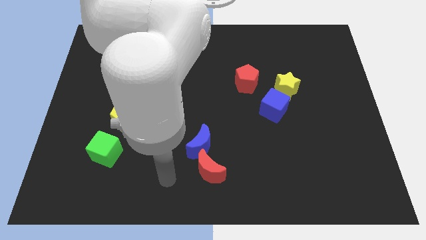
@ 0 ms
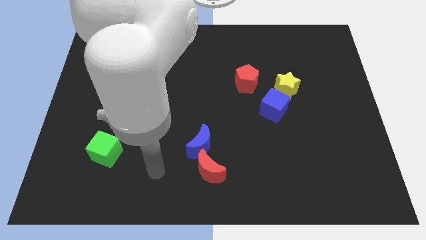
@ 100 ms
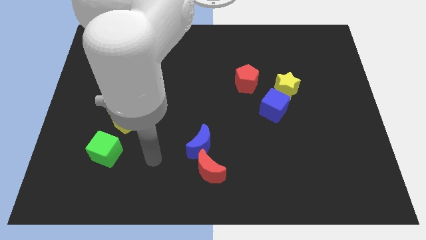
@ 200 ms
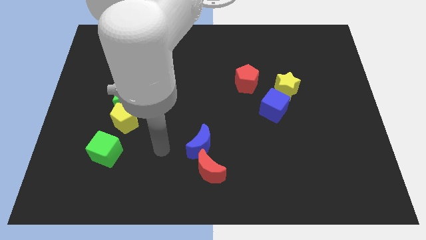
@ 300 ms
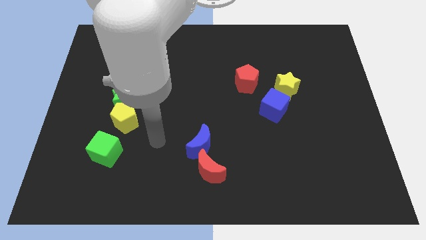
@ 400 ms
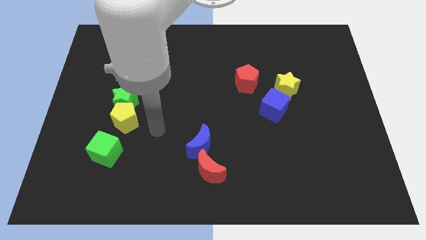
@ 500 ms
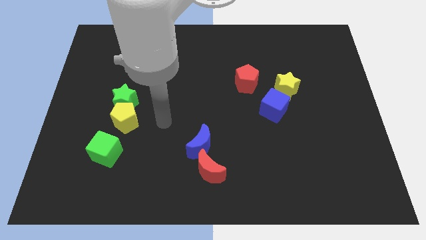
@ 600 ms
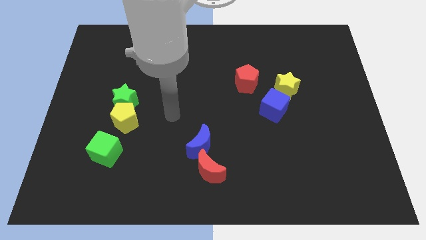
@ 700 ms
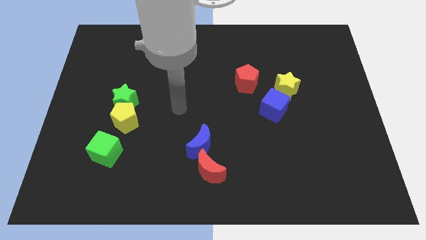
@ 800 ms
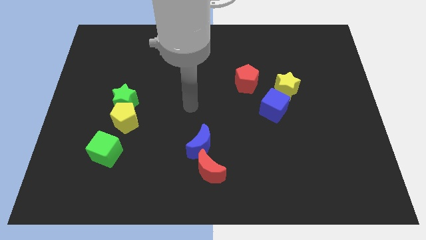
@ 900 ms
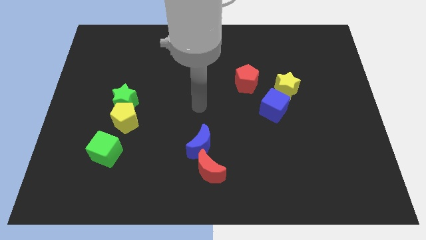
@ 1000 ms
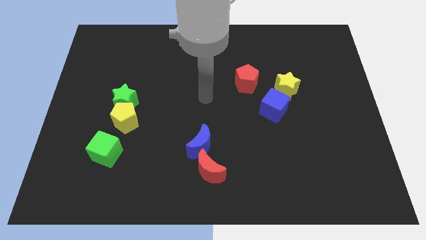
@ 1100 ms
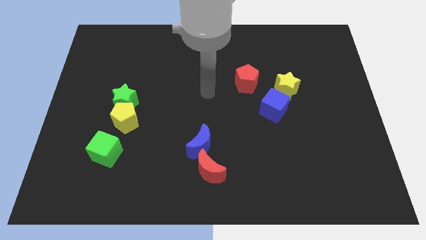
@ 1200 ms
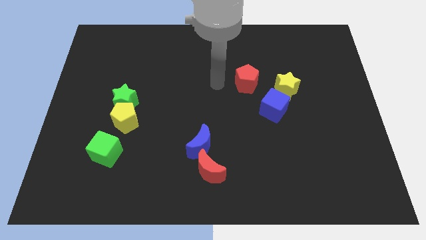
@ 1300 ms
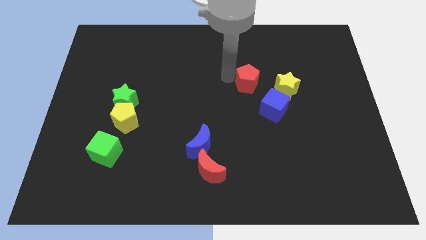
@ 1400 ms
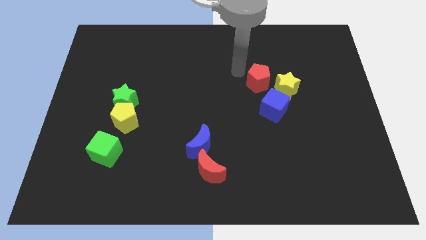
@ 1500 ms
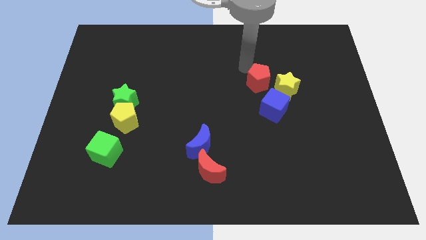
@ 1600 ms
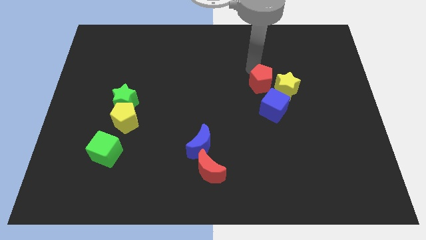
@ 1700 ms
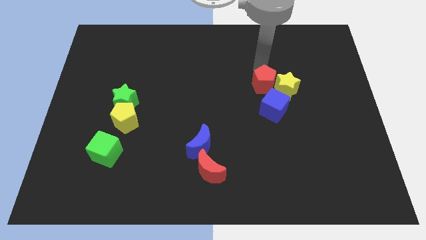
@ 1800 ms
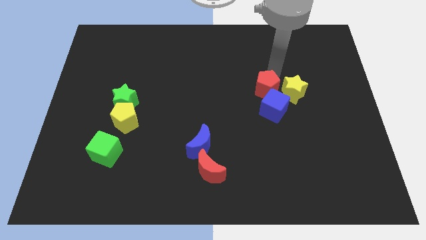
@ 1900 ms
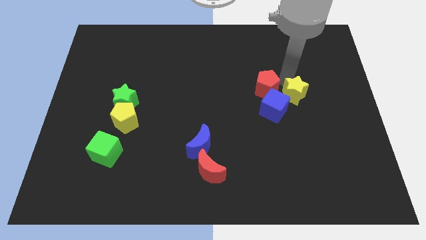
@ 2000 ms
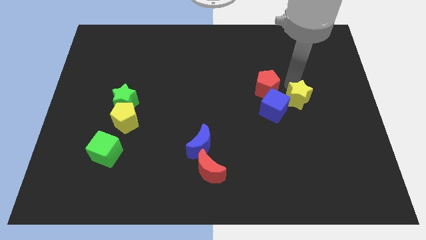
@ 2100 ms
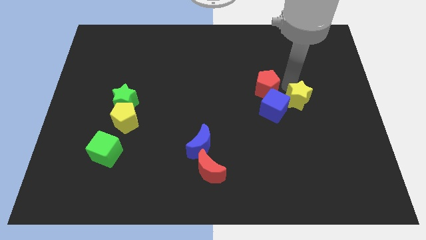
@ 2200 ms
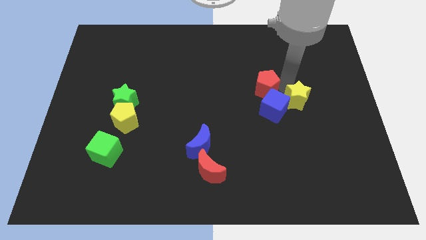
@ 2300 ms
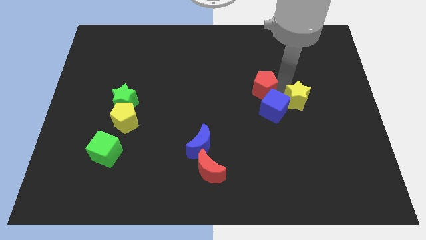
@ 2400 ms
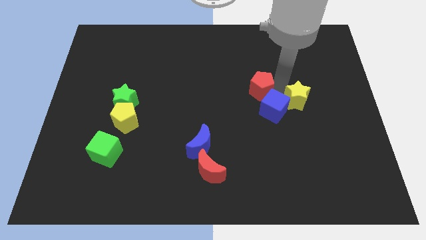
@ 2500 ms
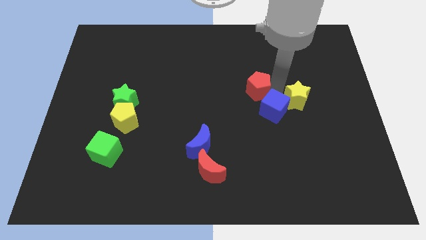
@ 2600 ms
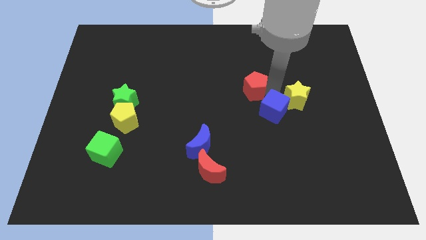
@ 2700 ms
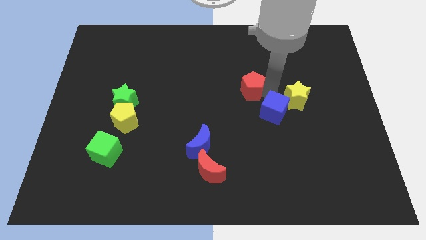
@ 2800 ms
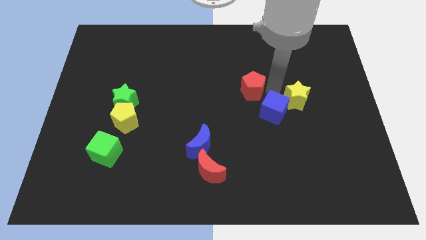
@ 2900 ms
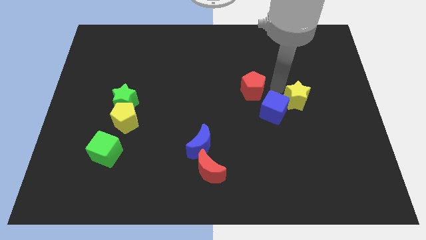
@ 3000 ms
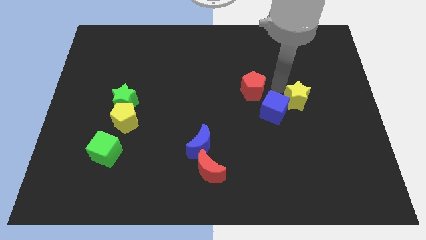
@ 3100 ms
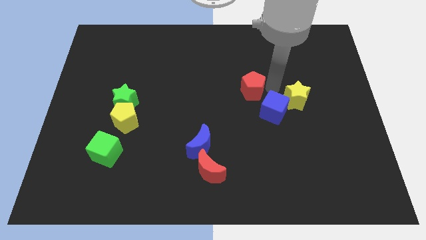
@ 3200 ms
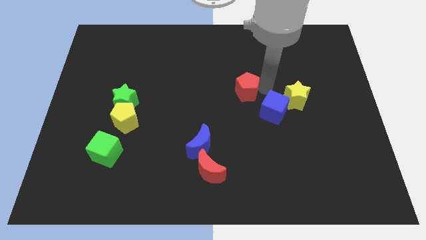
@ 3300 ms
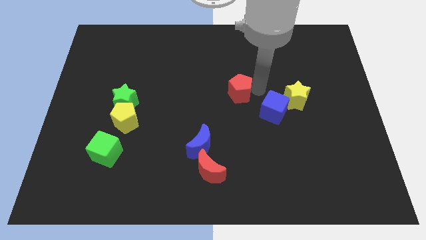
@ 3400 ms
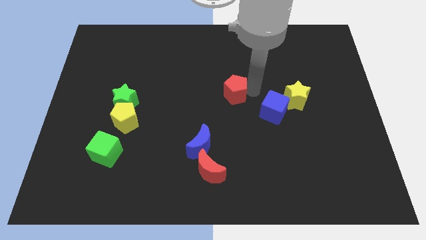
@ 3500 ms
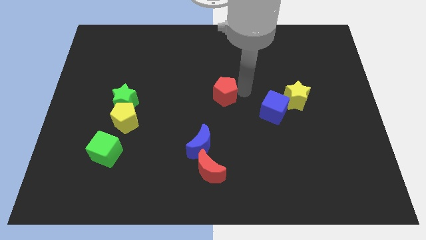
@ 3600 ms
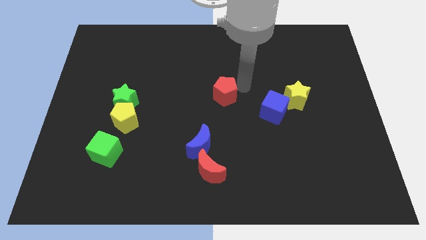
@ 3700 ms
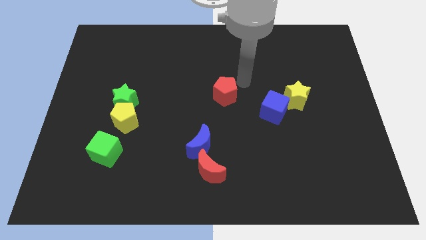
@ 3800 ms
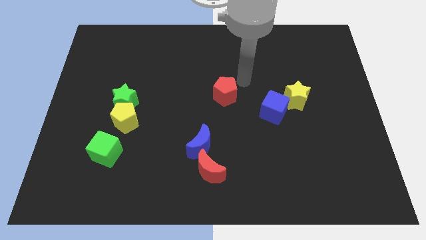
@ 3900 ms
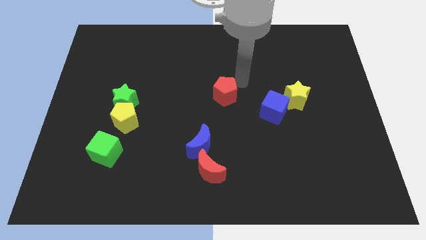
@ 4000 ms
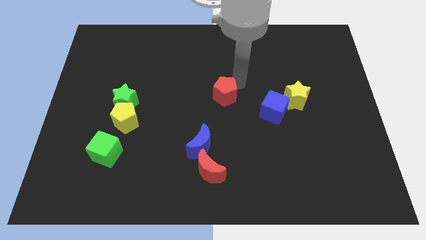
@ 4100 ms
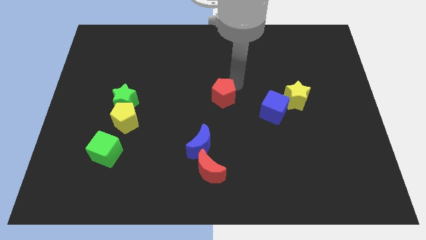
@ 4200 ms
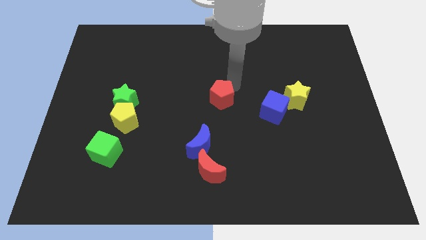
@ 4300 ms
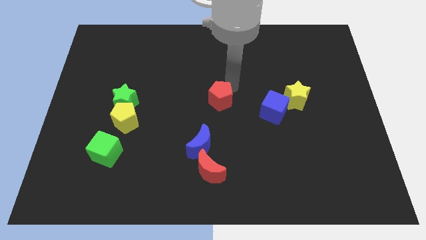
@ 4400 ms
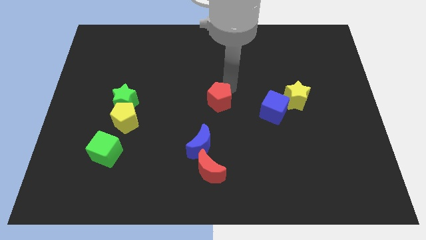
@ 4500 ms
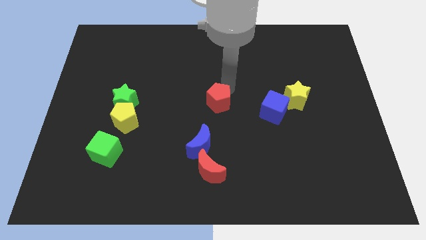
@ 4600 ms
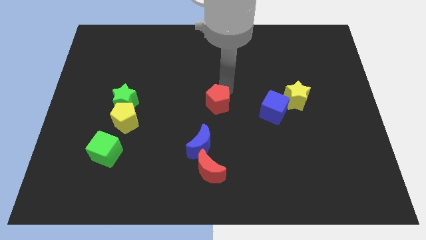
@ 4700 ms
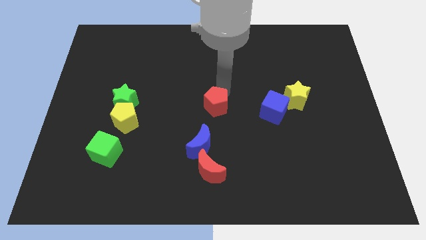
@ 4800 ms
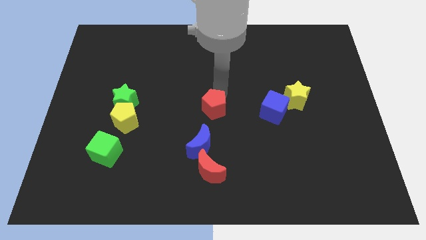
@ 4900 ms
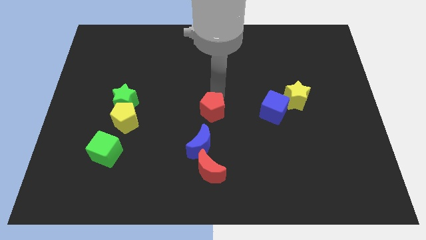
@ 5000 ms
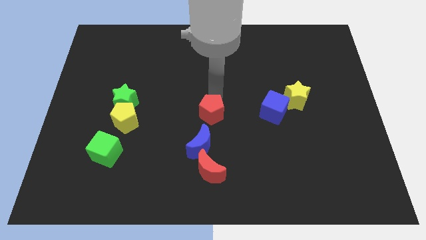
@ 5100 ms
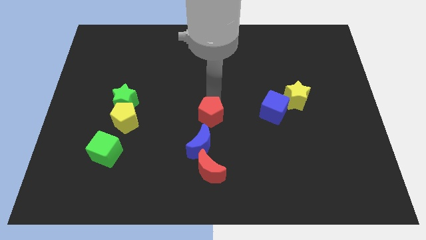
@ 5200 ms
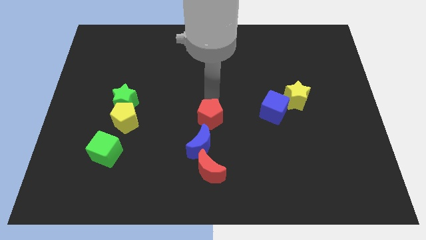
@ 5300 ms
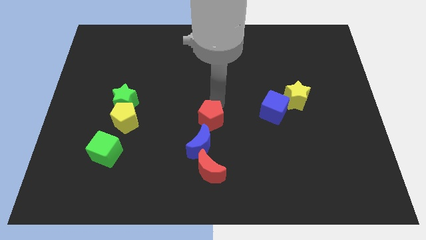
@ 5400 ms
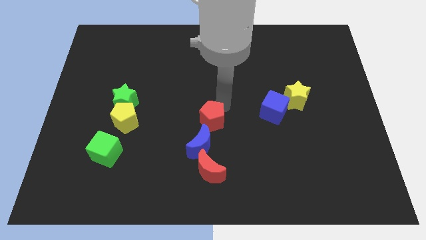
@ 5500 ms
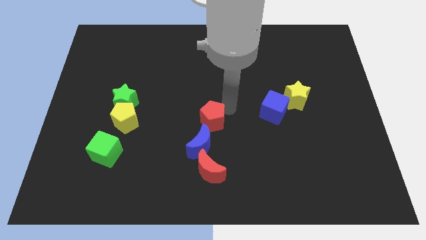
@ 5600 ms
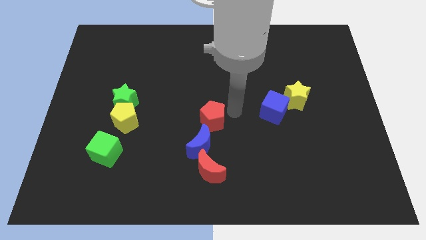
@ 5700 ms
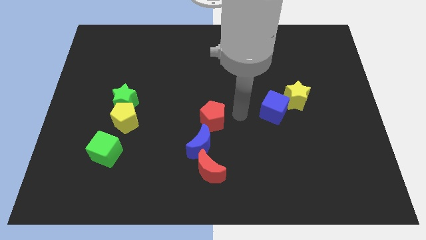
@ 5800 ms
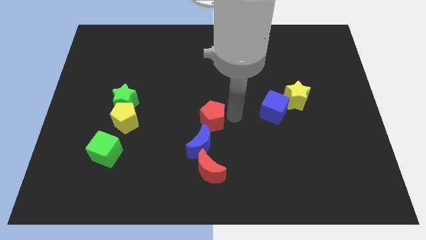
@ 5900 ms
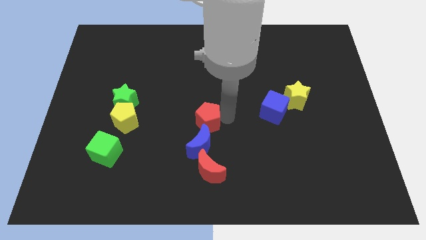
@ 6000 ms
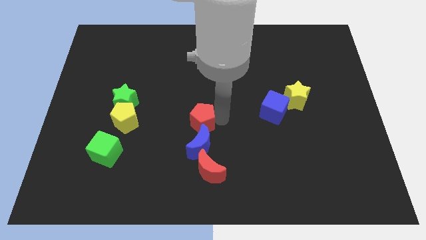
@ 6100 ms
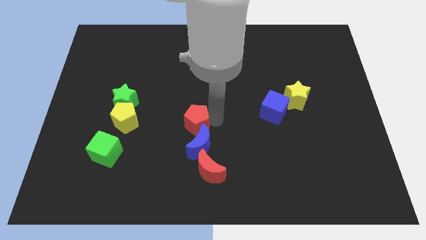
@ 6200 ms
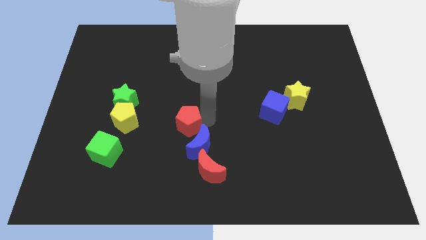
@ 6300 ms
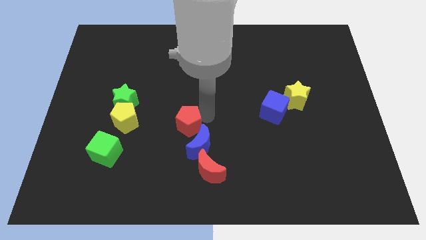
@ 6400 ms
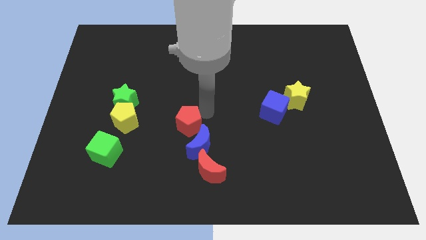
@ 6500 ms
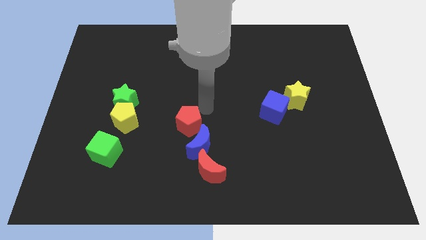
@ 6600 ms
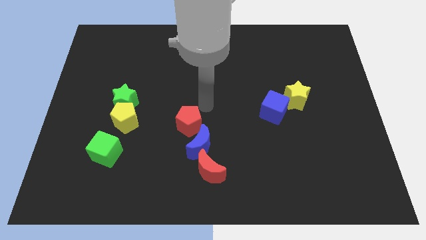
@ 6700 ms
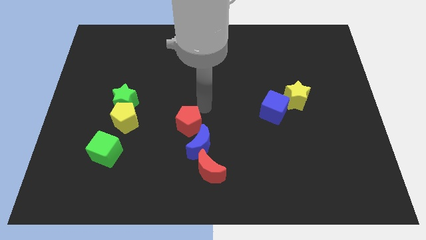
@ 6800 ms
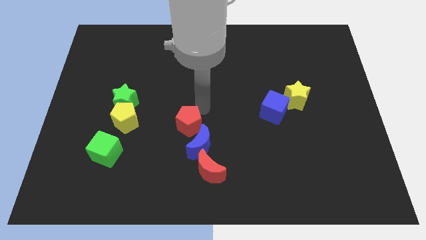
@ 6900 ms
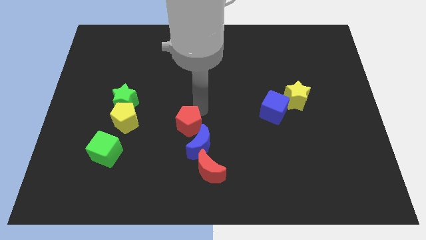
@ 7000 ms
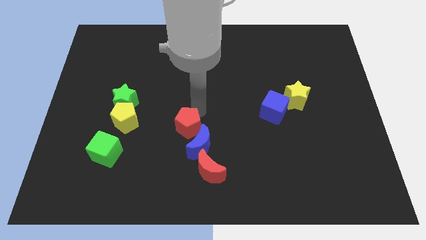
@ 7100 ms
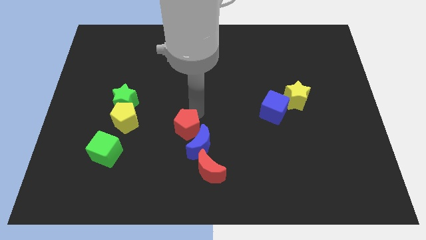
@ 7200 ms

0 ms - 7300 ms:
slide the red pentagon diagonally downwards and to the left

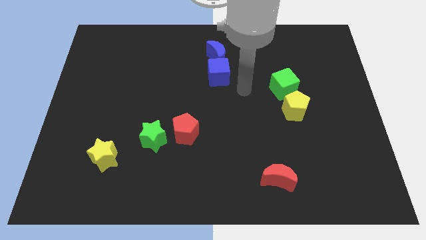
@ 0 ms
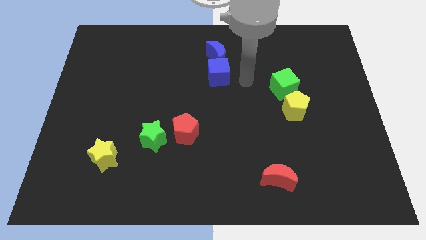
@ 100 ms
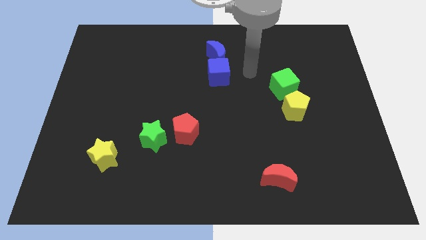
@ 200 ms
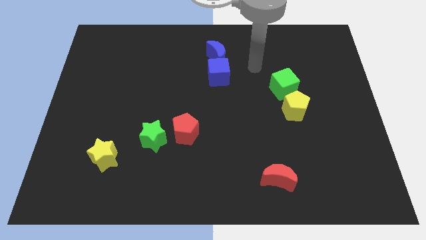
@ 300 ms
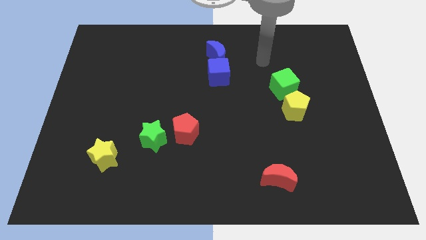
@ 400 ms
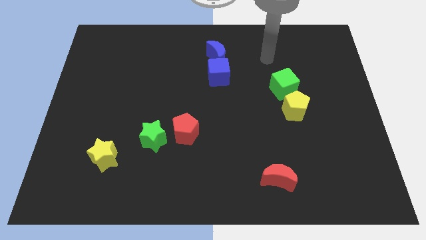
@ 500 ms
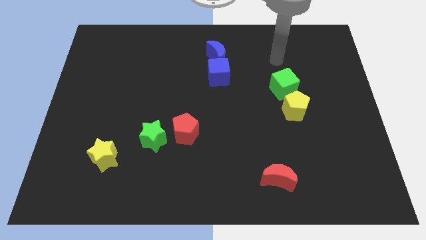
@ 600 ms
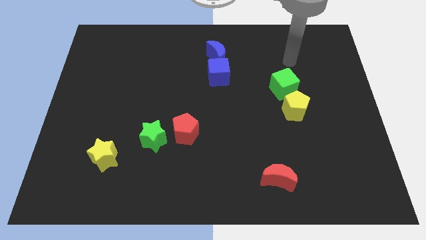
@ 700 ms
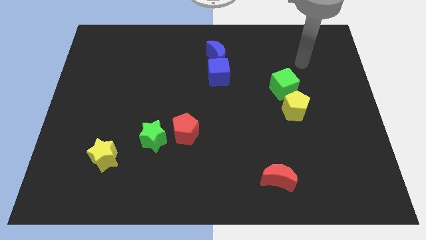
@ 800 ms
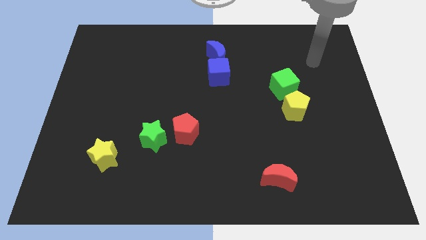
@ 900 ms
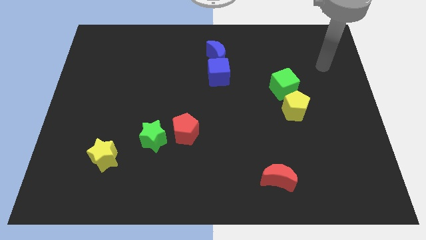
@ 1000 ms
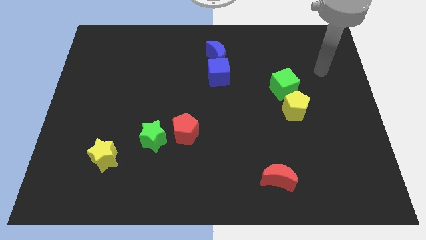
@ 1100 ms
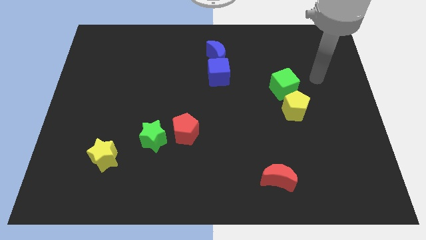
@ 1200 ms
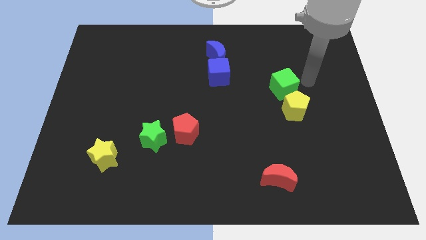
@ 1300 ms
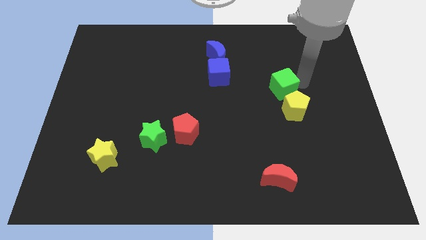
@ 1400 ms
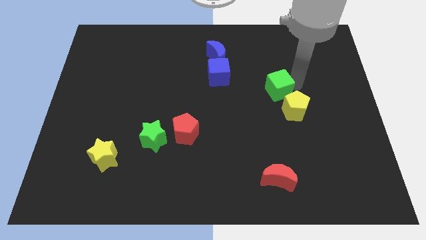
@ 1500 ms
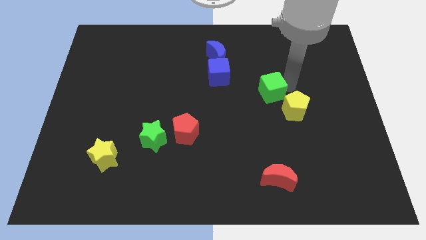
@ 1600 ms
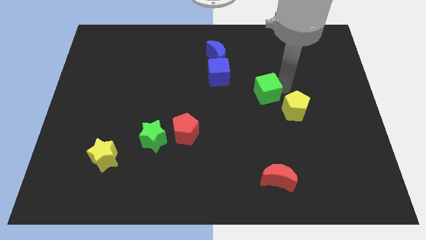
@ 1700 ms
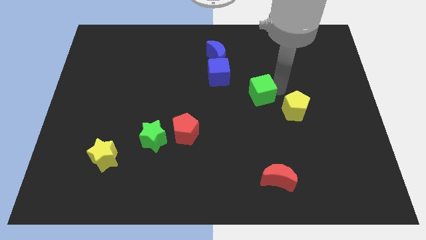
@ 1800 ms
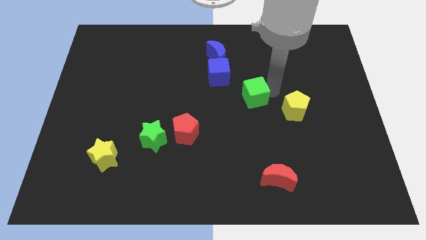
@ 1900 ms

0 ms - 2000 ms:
move the green cube a bit to the left
